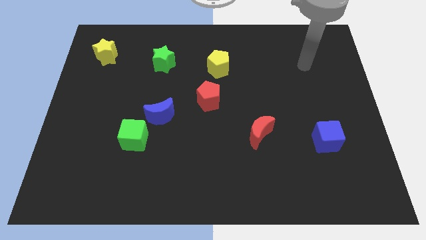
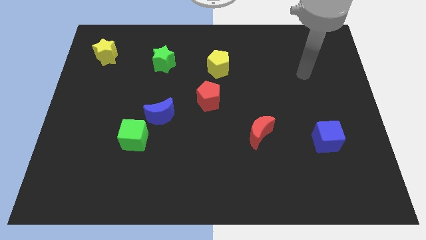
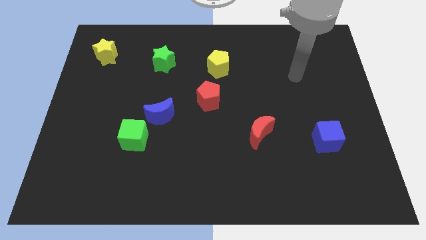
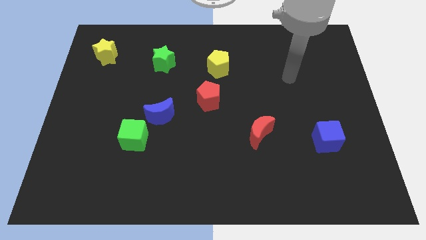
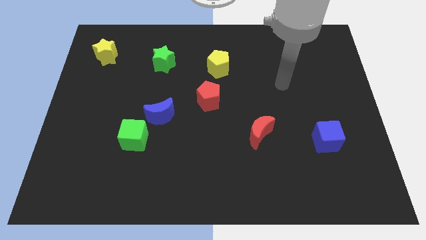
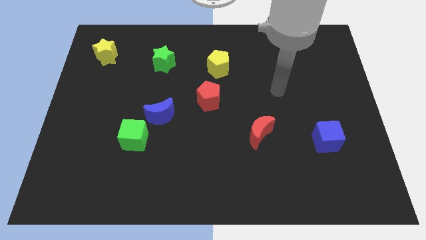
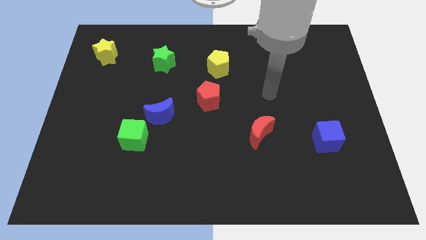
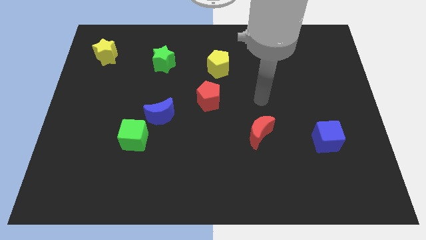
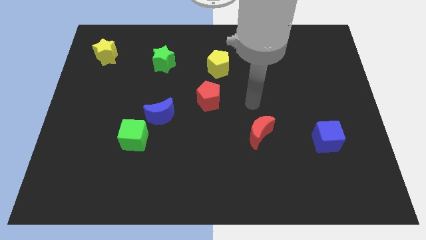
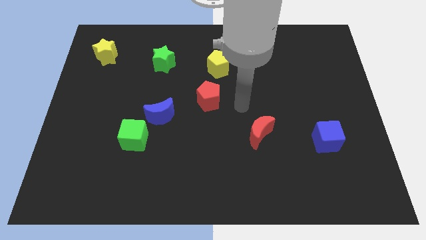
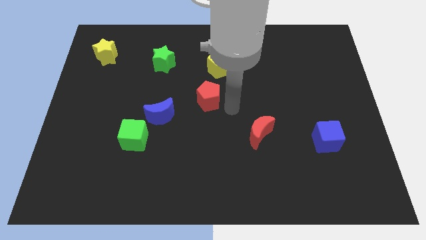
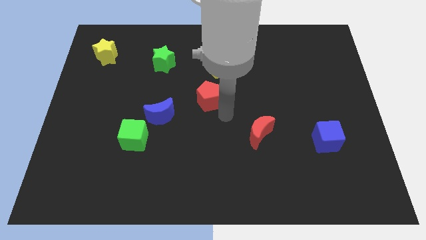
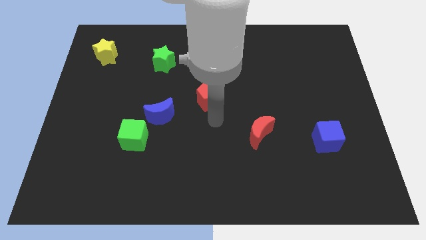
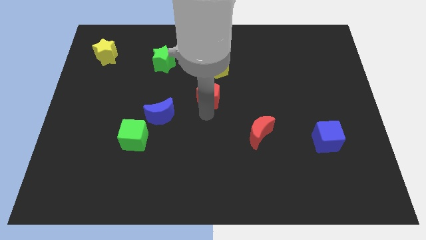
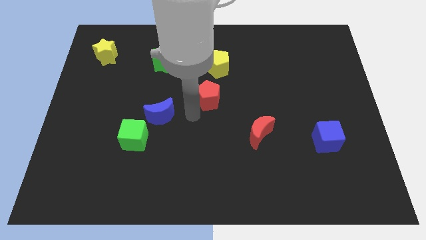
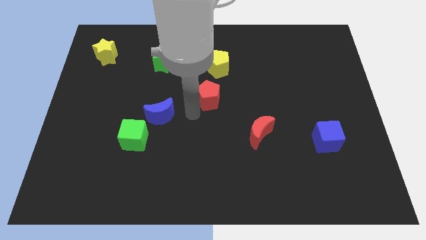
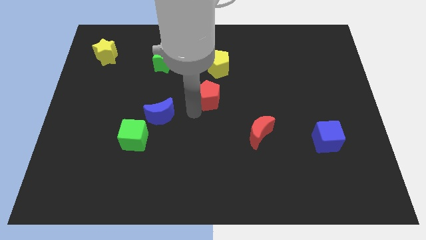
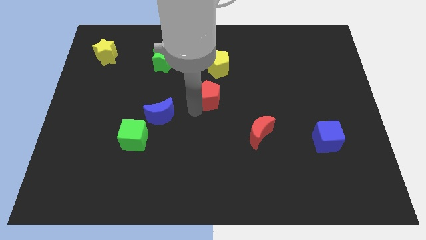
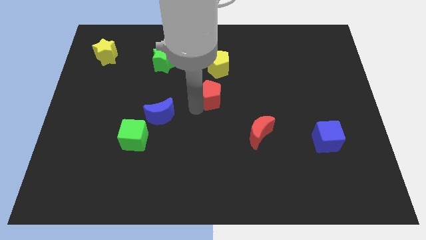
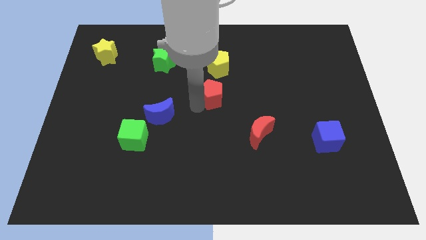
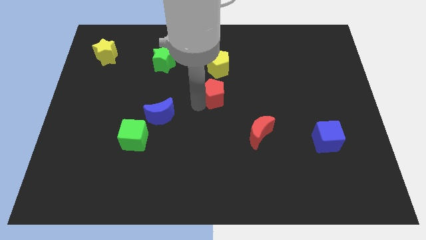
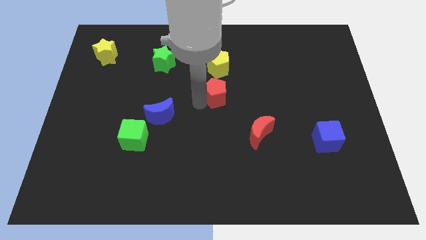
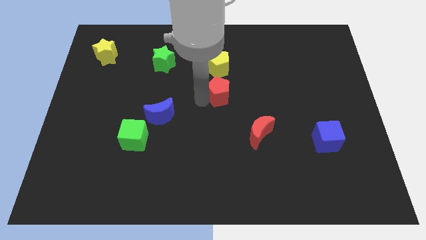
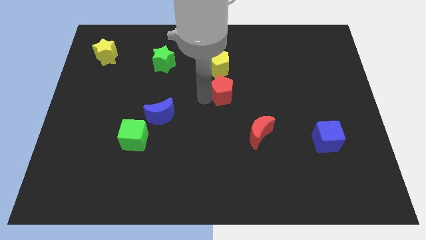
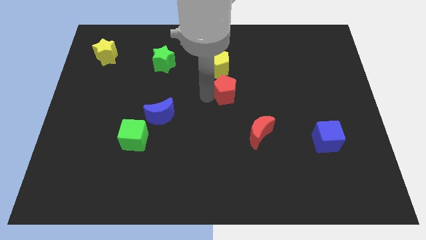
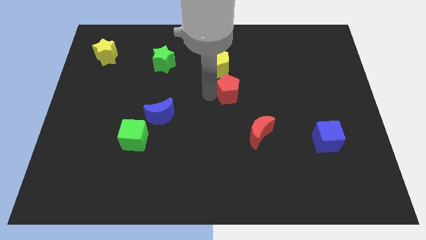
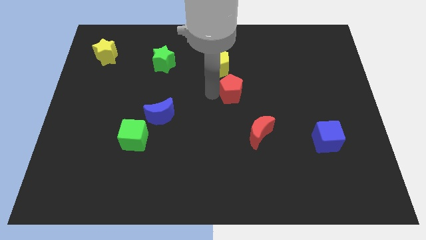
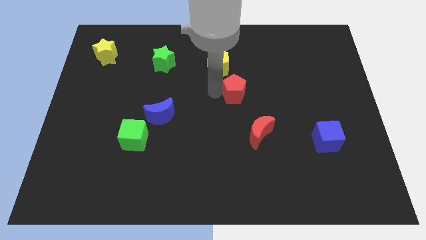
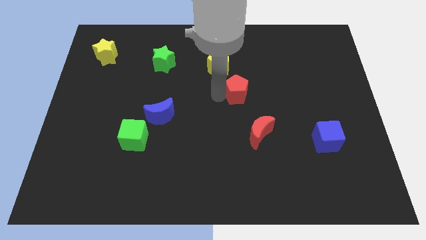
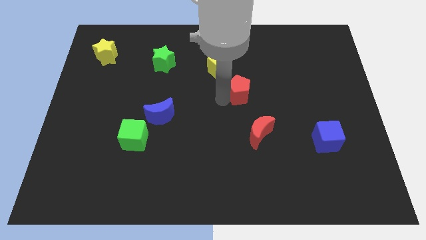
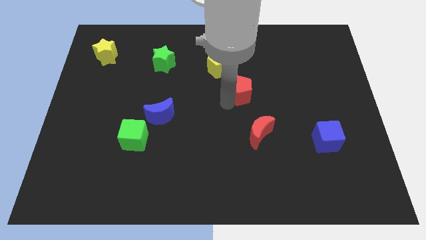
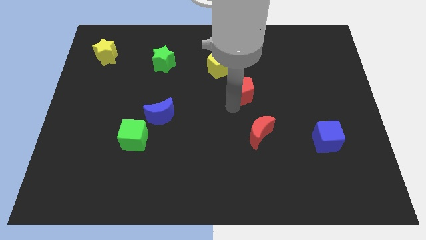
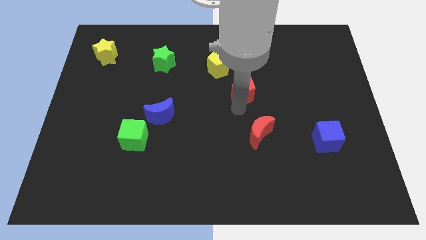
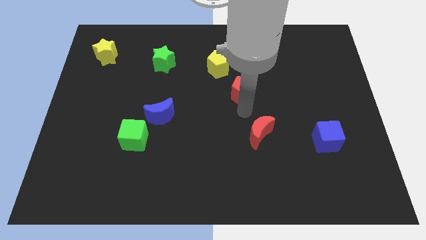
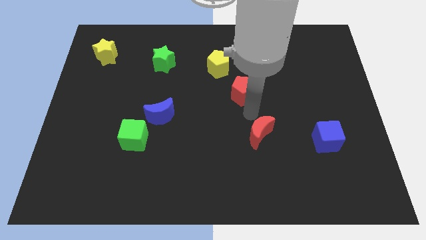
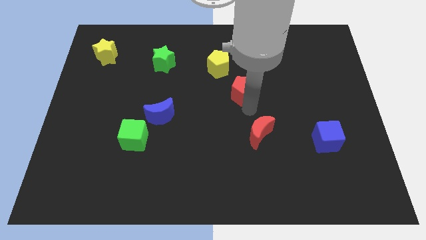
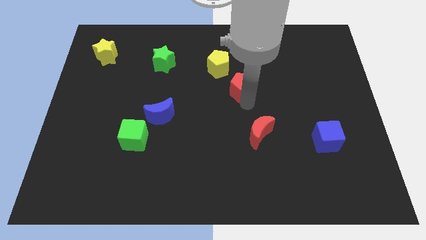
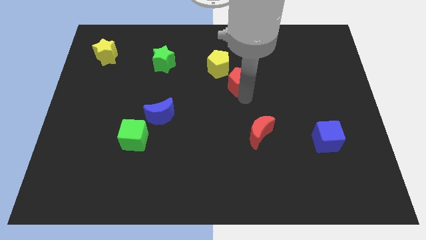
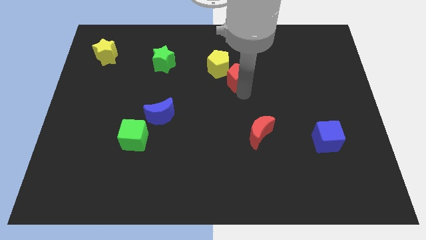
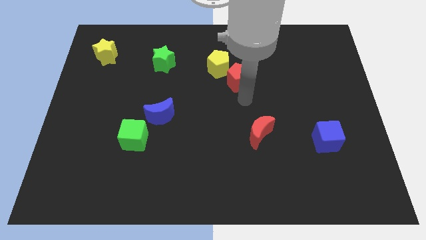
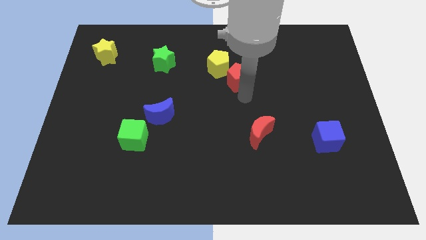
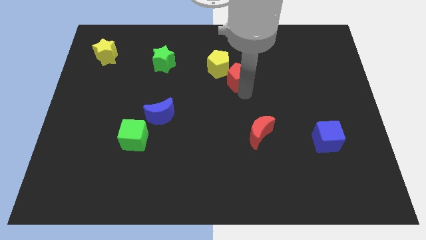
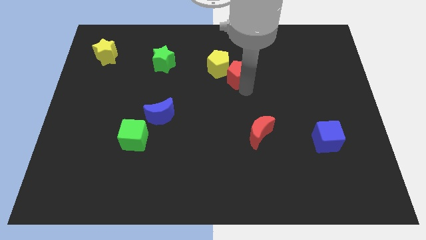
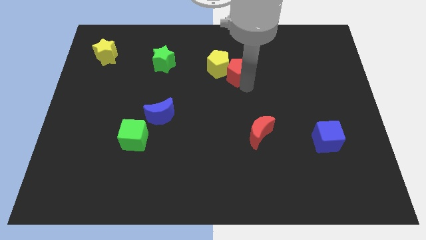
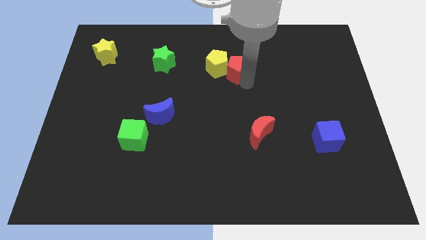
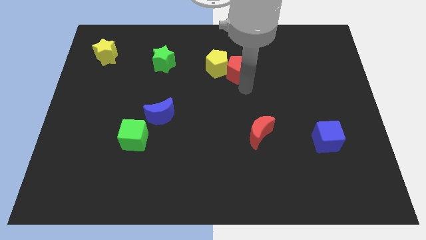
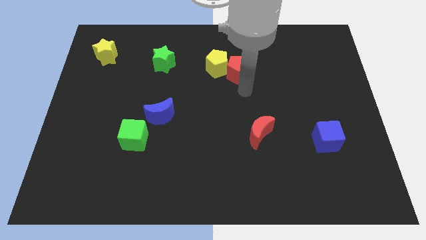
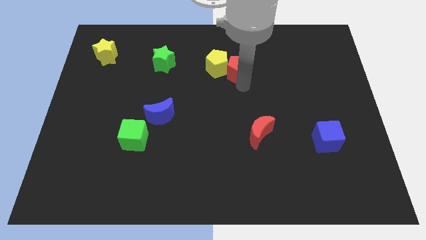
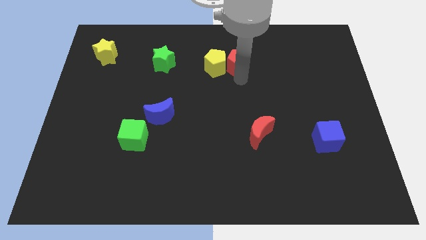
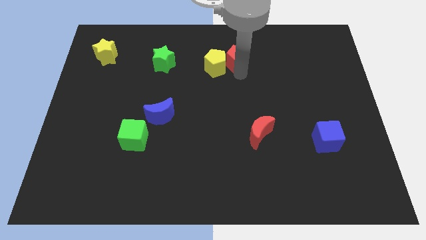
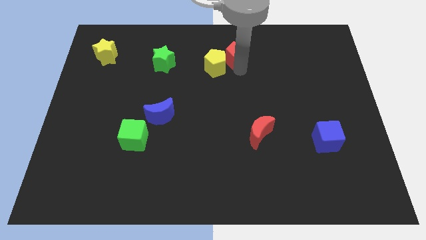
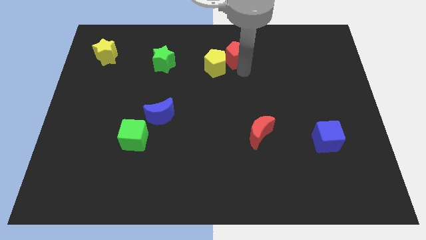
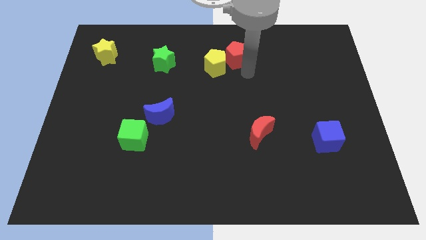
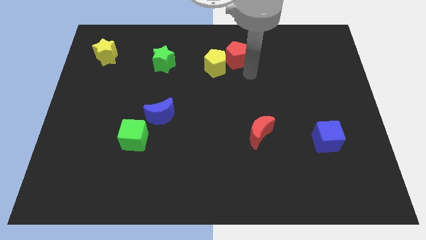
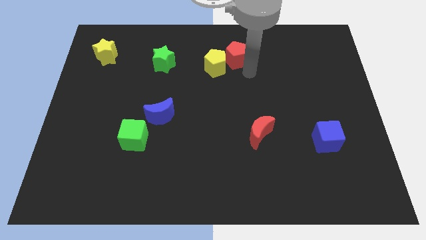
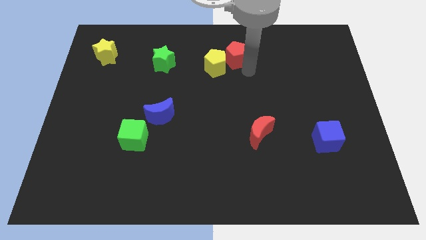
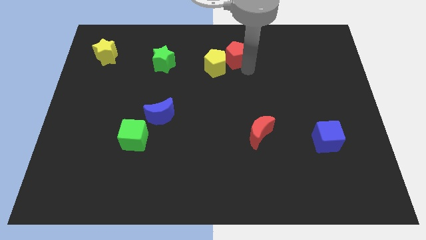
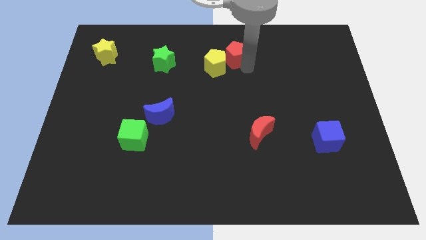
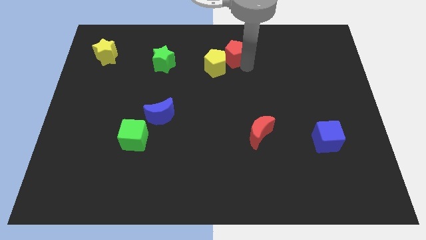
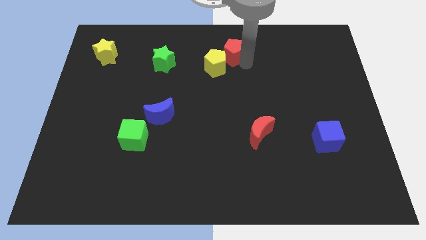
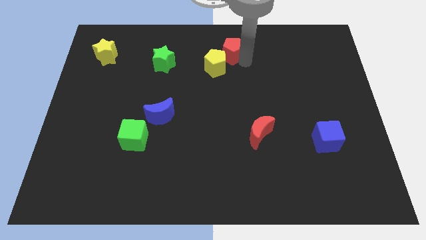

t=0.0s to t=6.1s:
move the red pentagon to the top side
